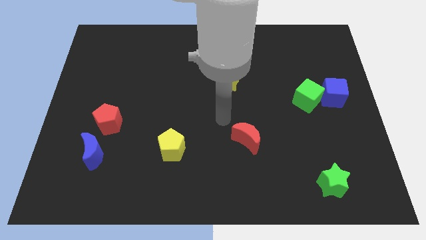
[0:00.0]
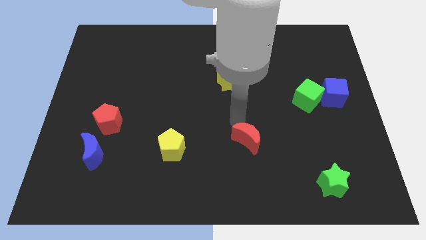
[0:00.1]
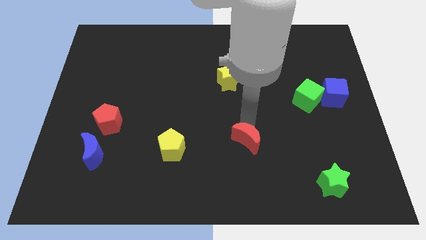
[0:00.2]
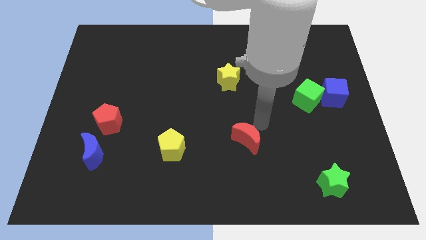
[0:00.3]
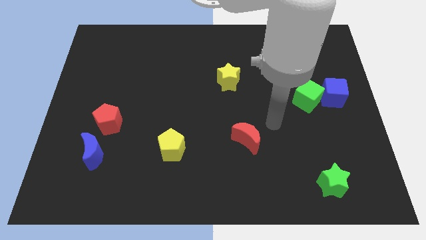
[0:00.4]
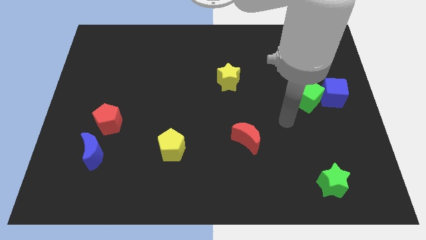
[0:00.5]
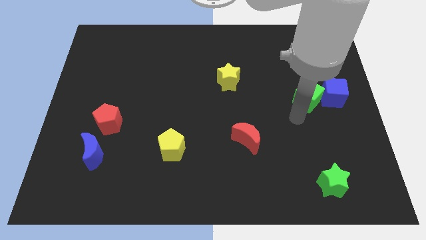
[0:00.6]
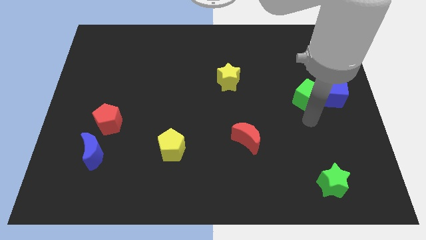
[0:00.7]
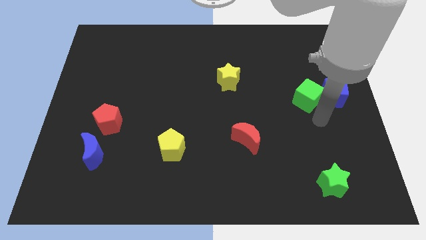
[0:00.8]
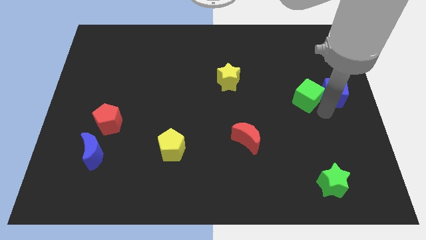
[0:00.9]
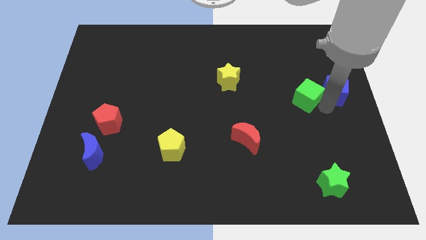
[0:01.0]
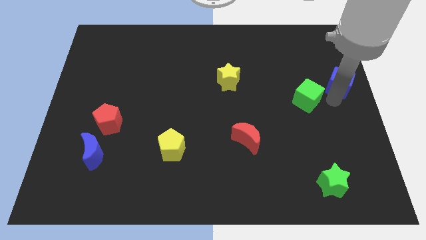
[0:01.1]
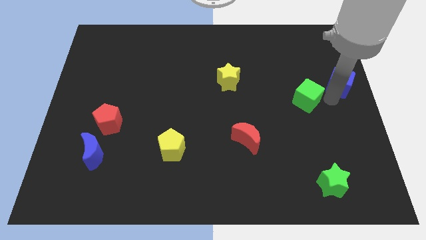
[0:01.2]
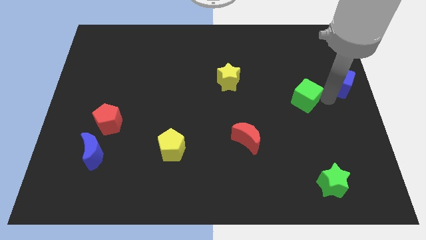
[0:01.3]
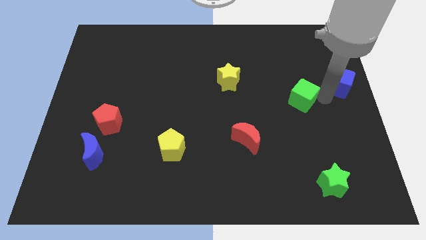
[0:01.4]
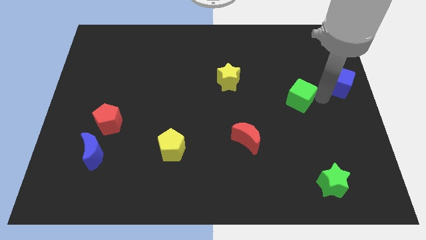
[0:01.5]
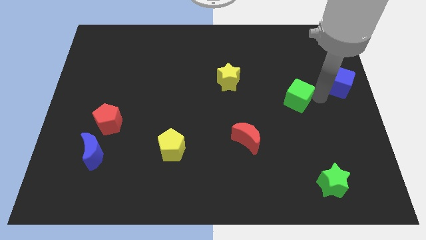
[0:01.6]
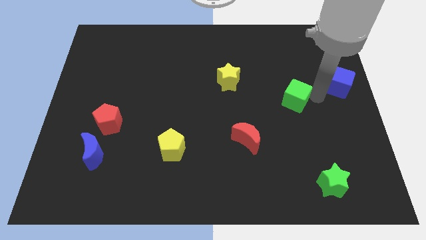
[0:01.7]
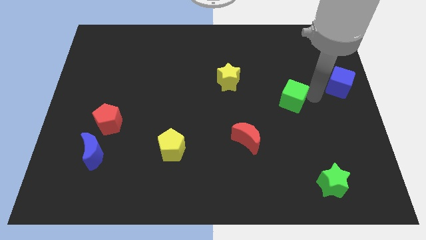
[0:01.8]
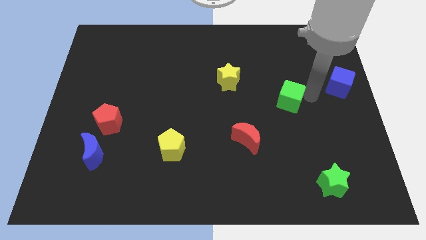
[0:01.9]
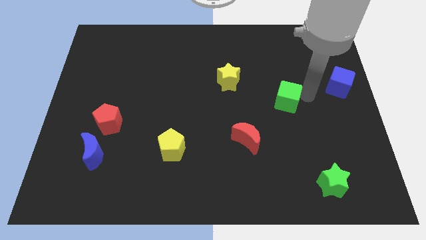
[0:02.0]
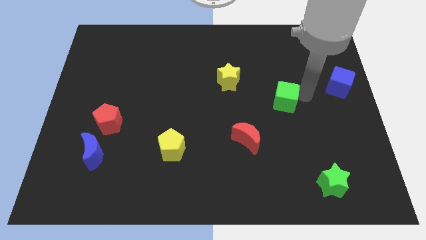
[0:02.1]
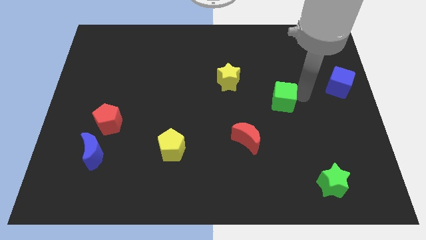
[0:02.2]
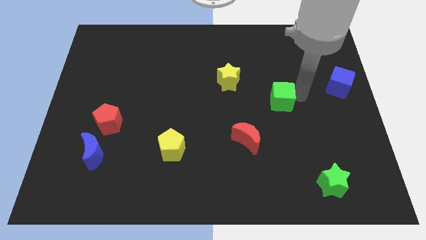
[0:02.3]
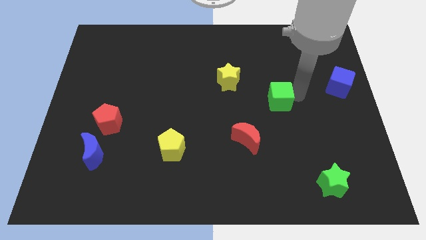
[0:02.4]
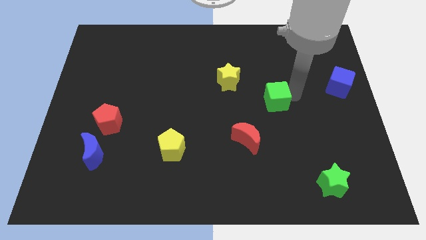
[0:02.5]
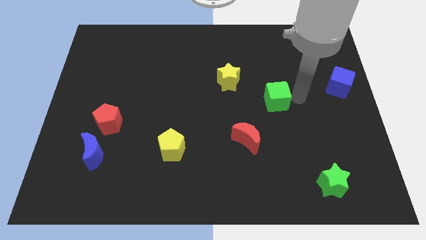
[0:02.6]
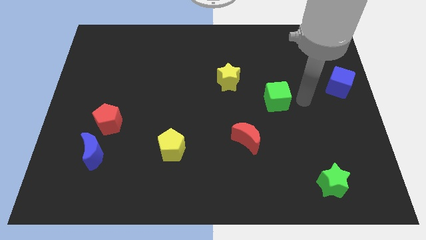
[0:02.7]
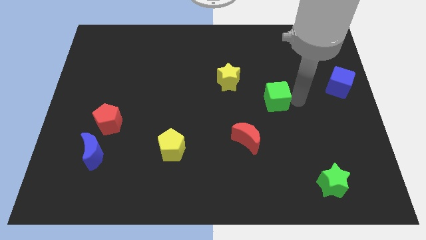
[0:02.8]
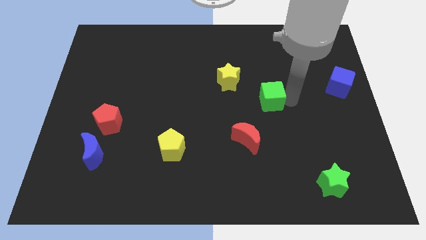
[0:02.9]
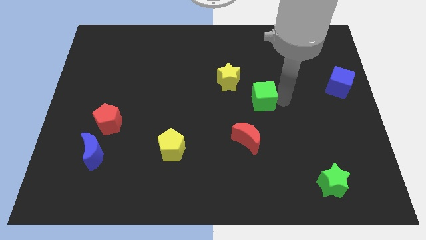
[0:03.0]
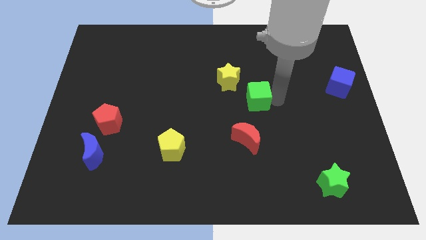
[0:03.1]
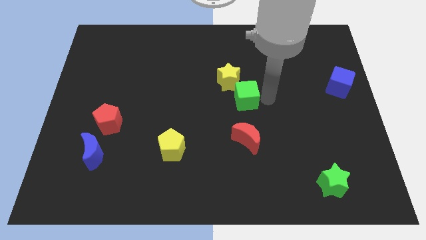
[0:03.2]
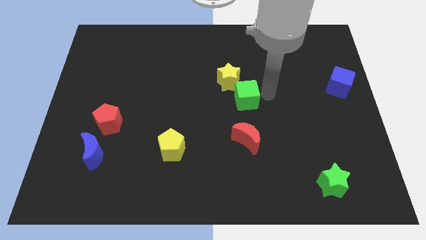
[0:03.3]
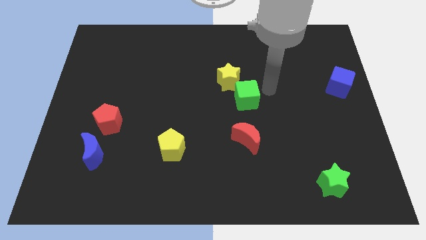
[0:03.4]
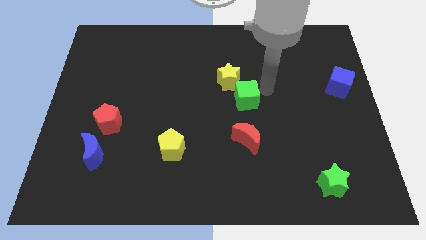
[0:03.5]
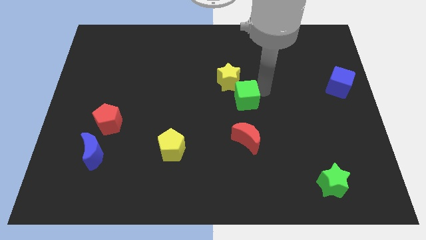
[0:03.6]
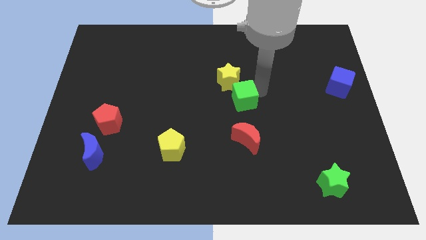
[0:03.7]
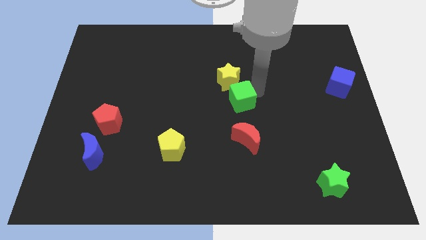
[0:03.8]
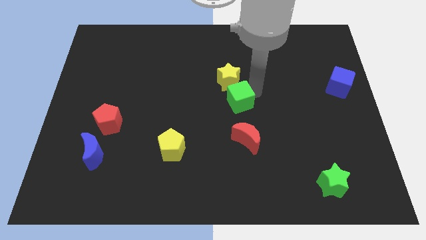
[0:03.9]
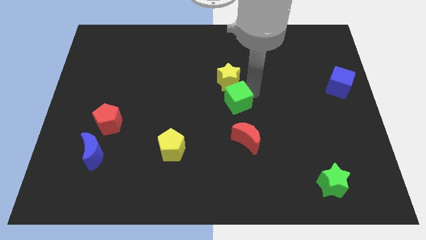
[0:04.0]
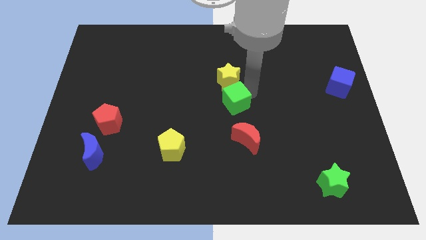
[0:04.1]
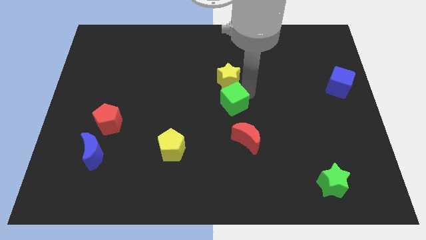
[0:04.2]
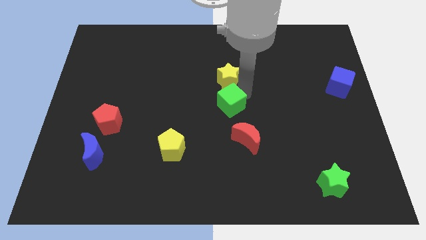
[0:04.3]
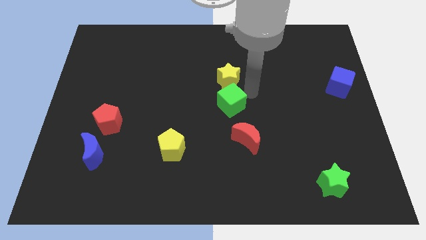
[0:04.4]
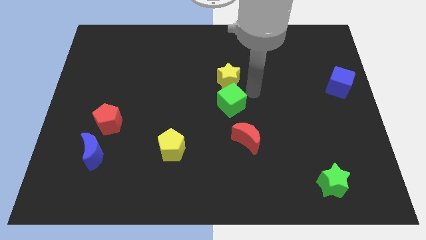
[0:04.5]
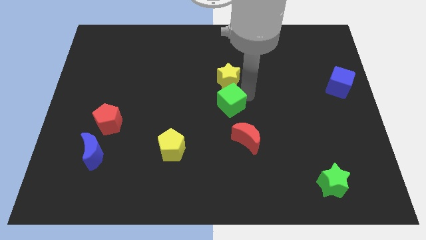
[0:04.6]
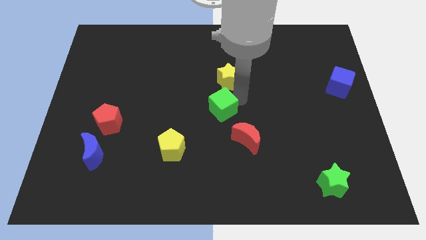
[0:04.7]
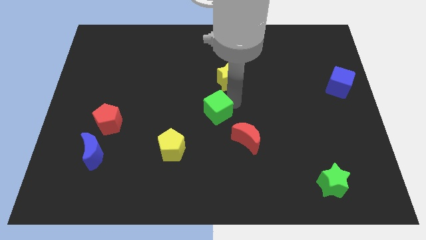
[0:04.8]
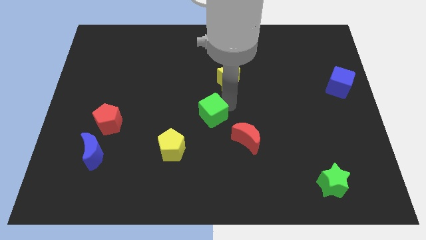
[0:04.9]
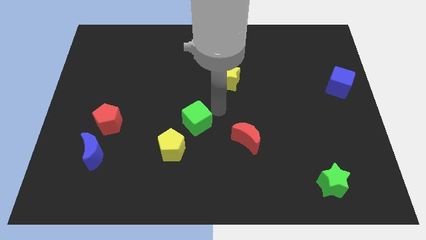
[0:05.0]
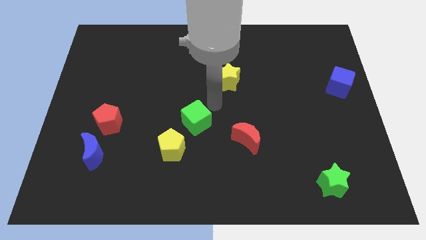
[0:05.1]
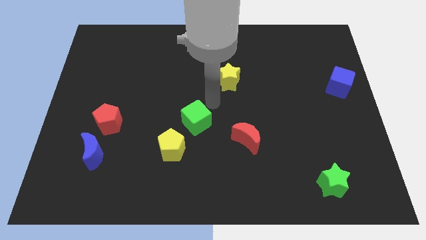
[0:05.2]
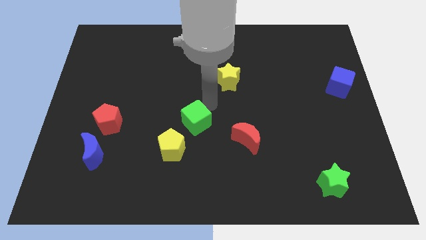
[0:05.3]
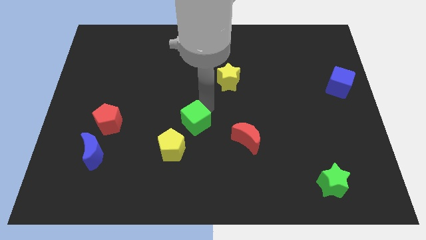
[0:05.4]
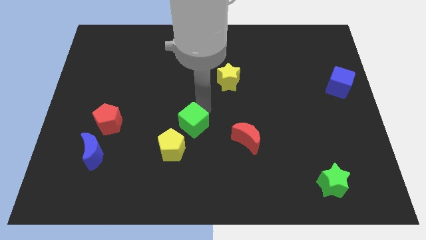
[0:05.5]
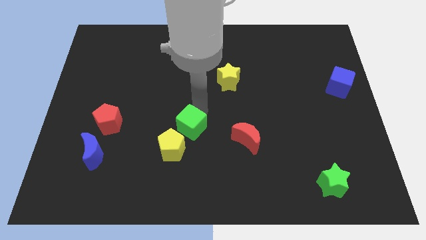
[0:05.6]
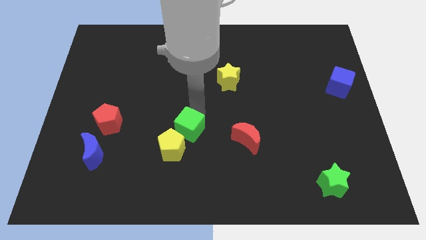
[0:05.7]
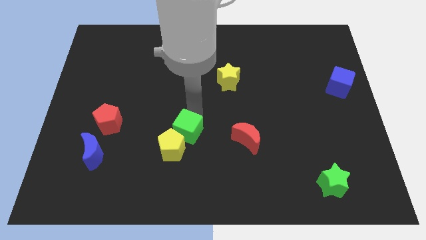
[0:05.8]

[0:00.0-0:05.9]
slide the green cube towards the yellow pentagon

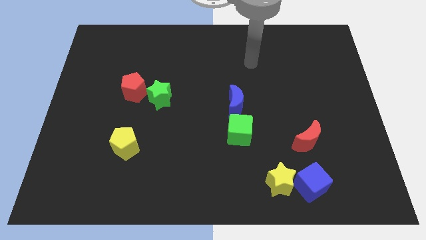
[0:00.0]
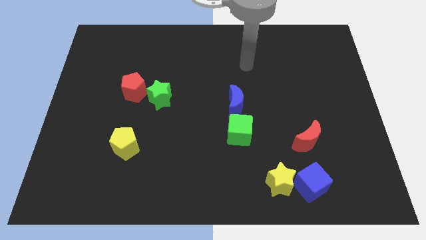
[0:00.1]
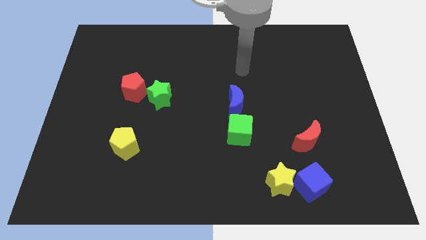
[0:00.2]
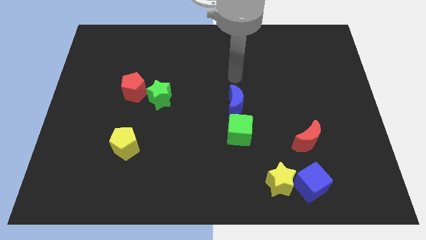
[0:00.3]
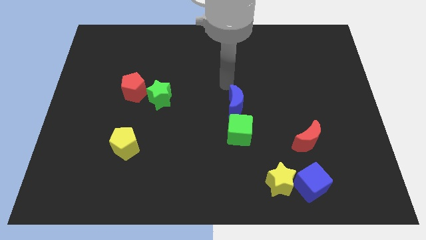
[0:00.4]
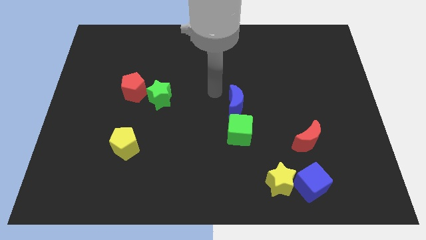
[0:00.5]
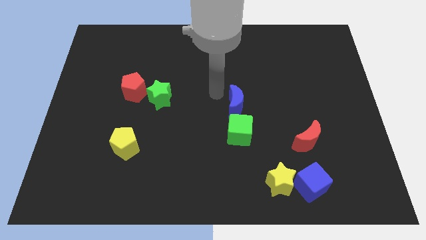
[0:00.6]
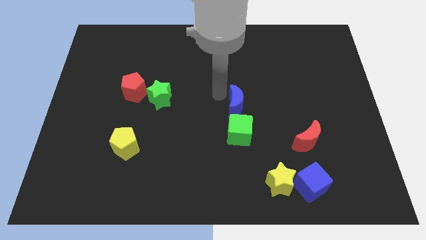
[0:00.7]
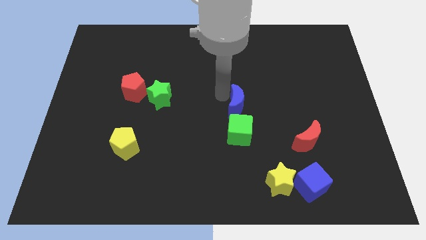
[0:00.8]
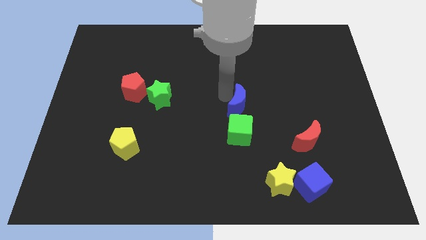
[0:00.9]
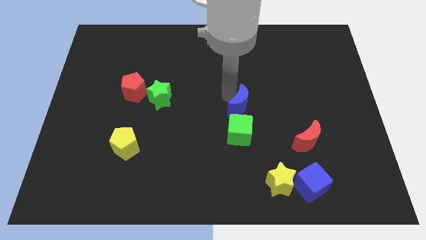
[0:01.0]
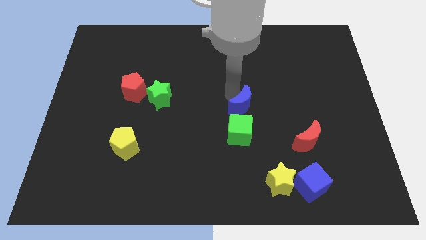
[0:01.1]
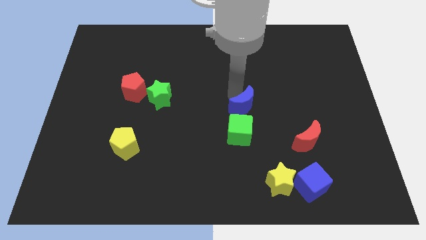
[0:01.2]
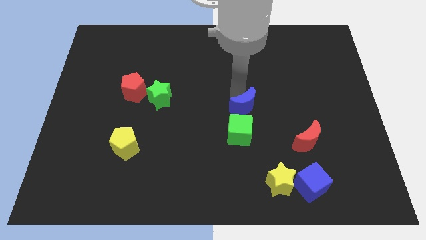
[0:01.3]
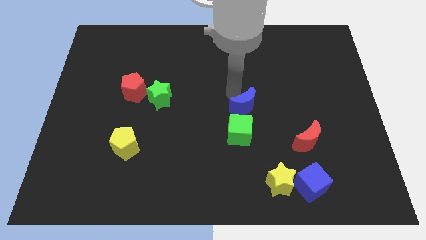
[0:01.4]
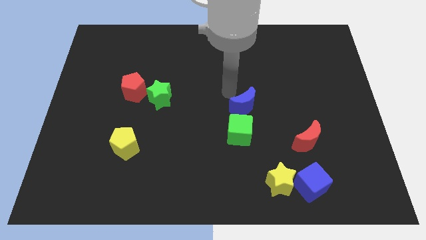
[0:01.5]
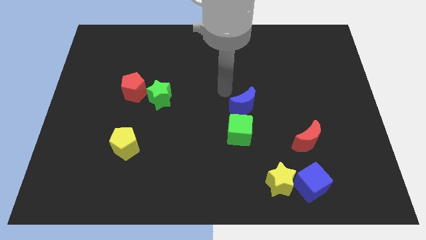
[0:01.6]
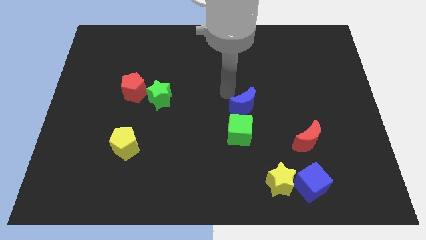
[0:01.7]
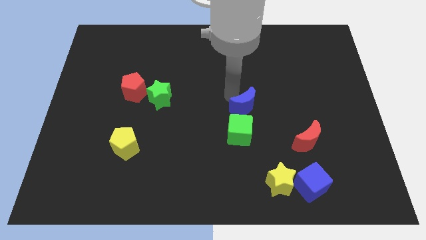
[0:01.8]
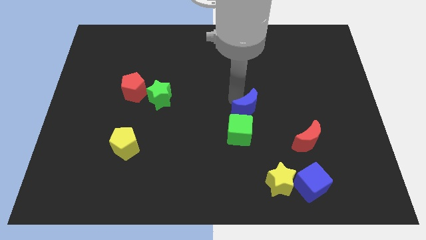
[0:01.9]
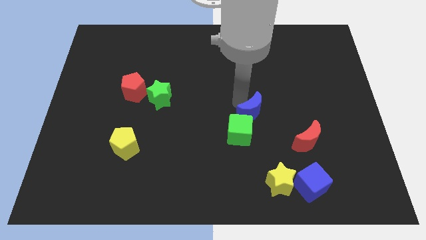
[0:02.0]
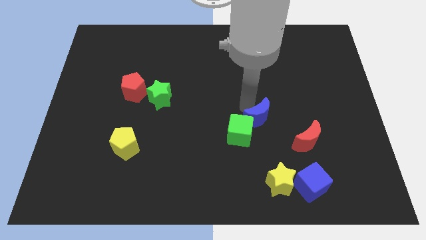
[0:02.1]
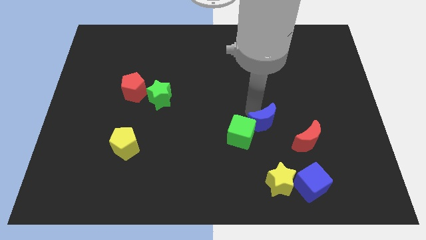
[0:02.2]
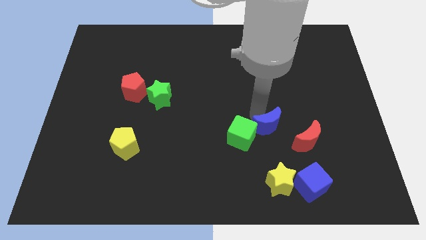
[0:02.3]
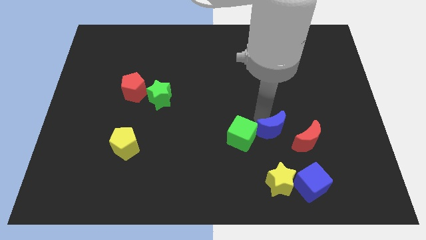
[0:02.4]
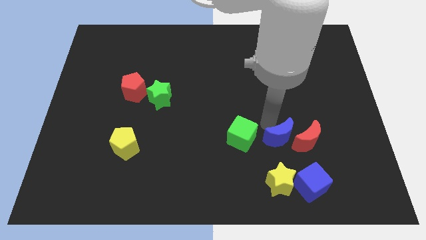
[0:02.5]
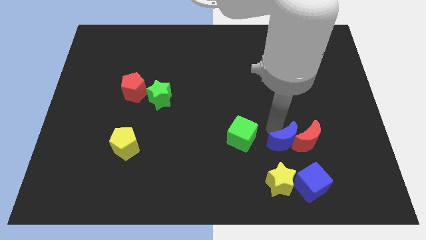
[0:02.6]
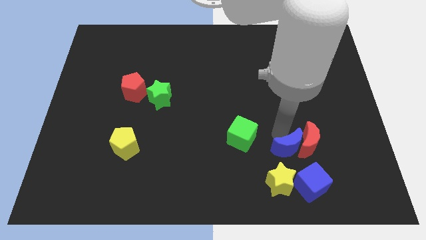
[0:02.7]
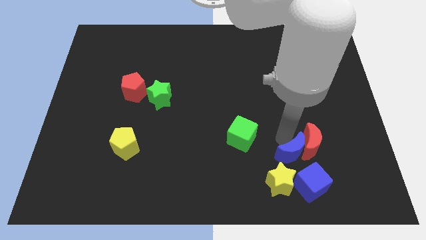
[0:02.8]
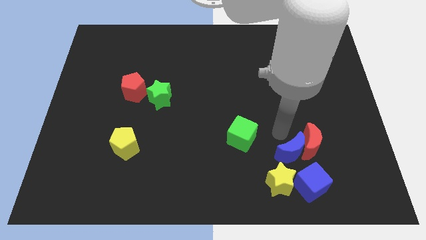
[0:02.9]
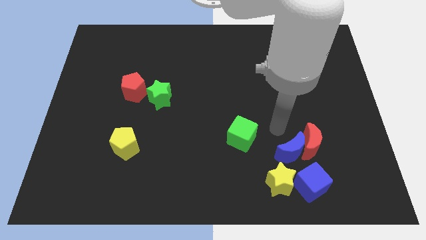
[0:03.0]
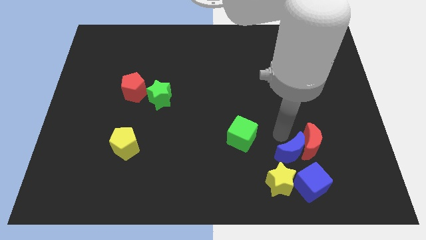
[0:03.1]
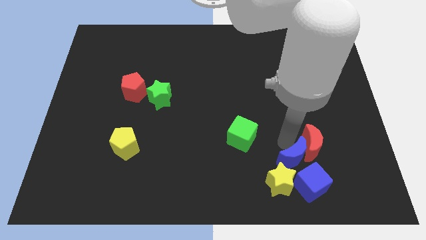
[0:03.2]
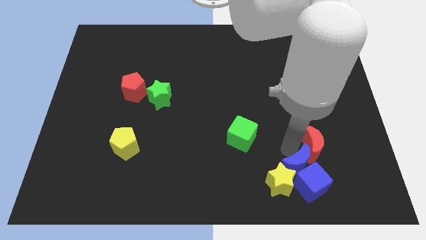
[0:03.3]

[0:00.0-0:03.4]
push the blue moon next to the blue cube
